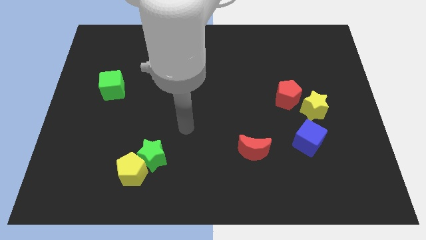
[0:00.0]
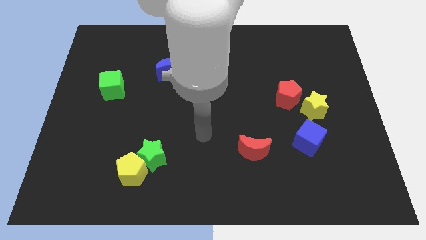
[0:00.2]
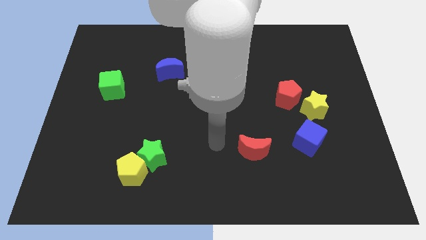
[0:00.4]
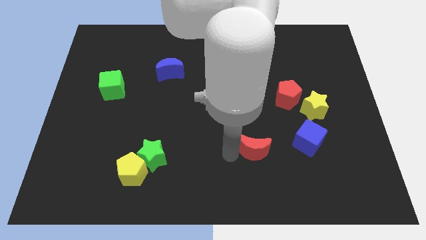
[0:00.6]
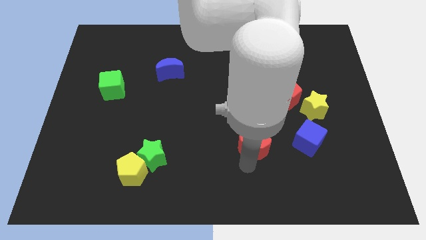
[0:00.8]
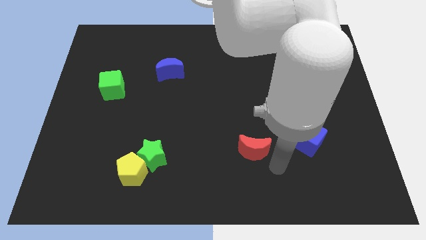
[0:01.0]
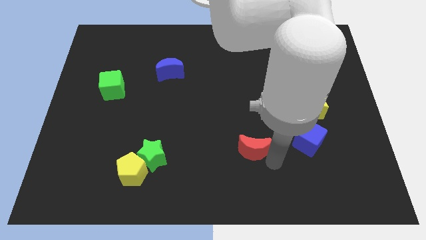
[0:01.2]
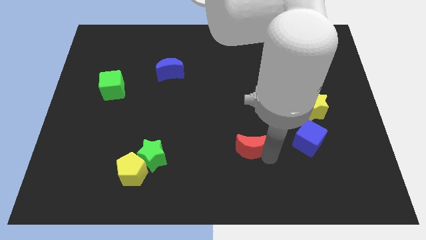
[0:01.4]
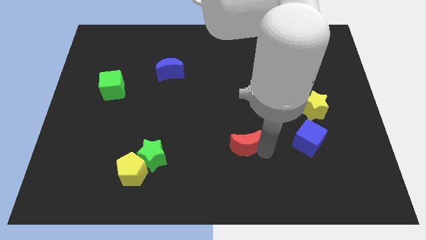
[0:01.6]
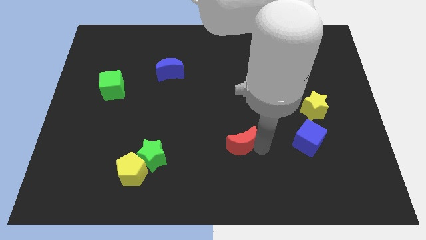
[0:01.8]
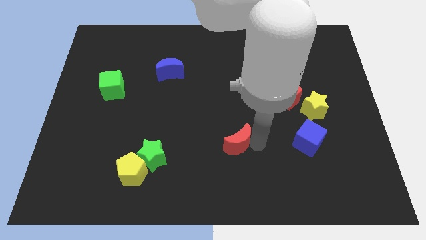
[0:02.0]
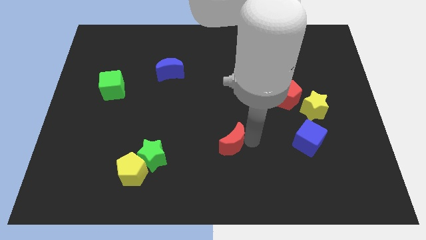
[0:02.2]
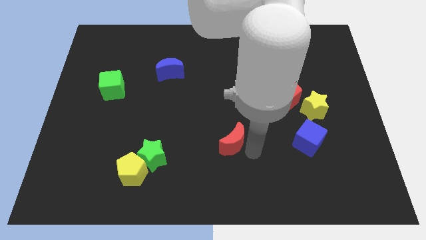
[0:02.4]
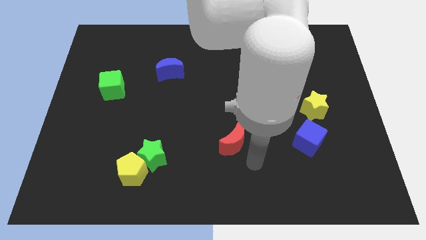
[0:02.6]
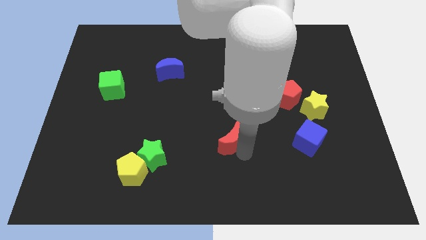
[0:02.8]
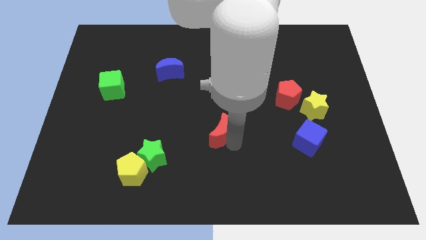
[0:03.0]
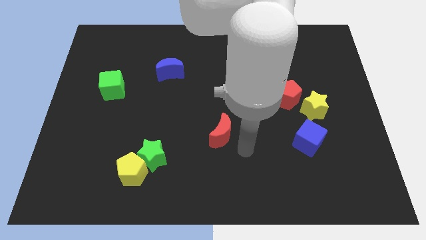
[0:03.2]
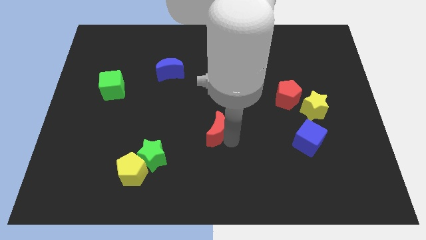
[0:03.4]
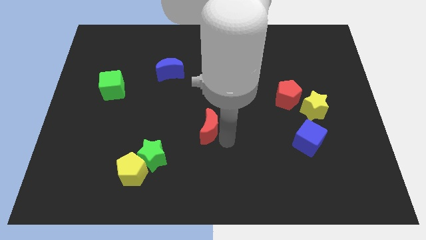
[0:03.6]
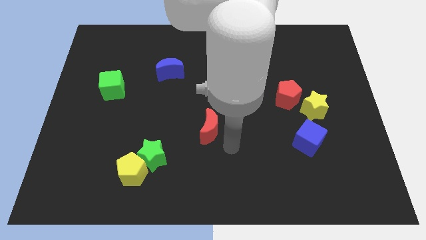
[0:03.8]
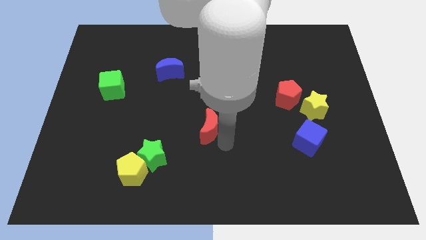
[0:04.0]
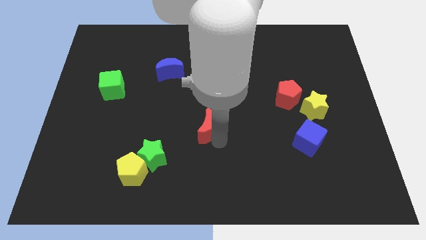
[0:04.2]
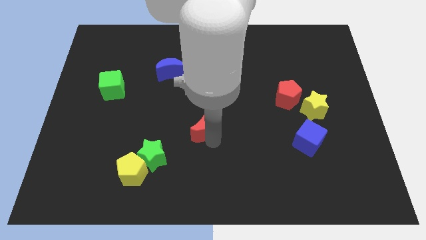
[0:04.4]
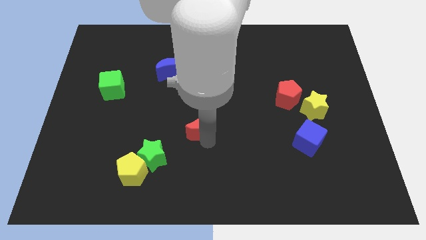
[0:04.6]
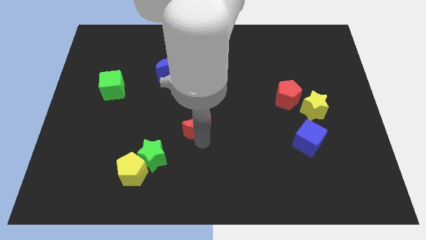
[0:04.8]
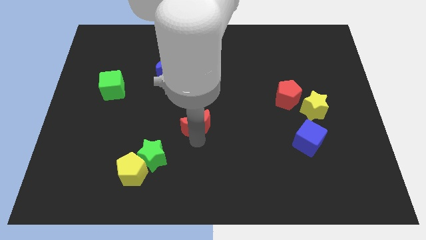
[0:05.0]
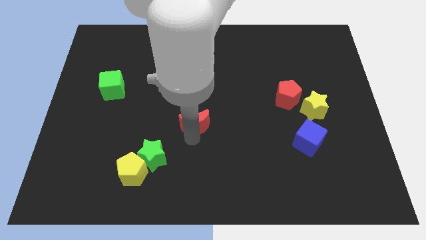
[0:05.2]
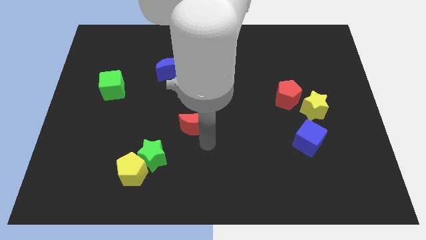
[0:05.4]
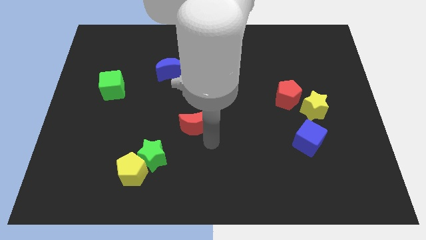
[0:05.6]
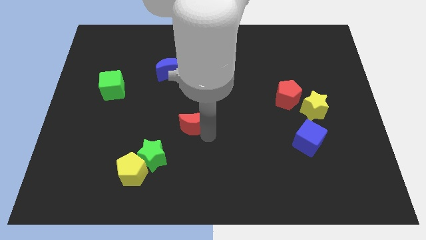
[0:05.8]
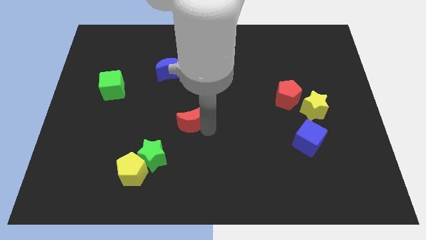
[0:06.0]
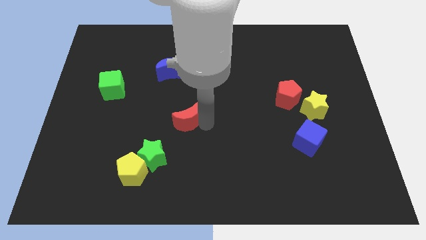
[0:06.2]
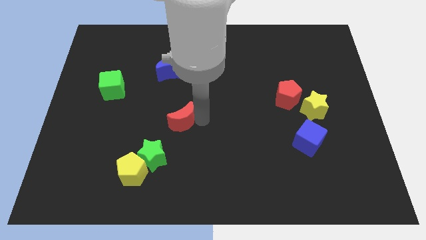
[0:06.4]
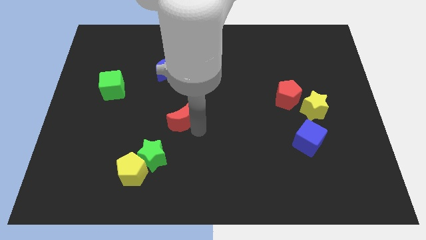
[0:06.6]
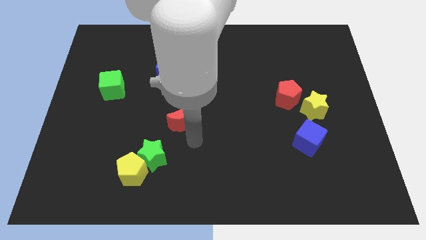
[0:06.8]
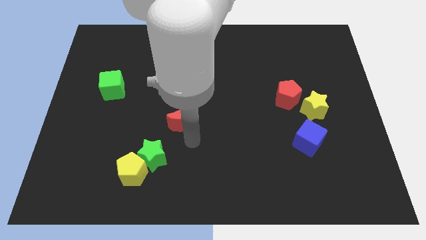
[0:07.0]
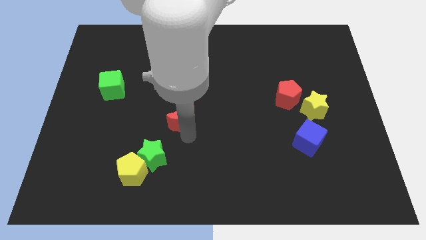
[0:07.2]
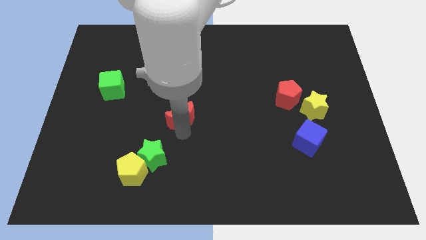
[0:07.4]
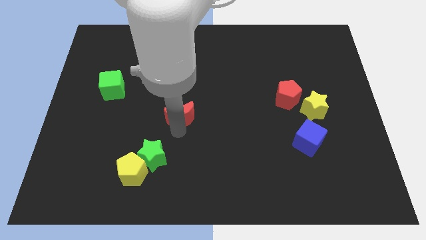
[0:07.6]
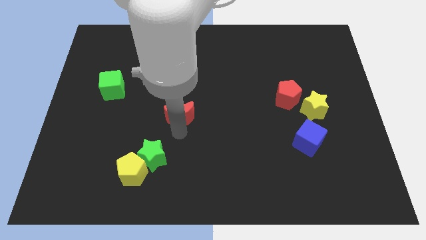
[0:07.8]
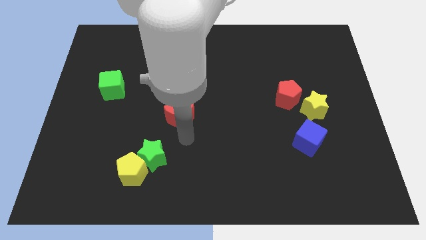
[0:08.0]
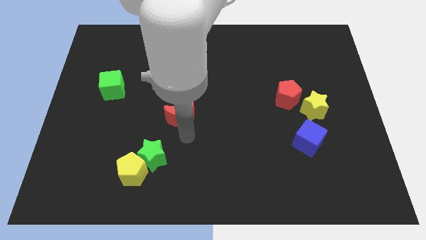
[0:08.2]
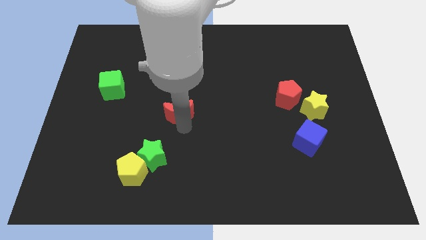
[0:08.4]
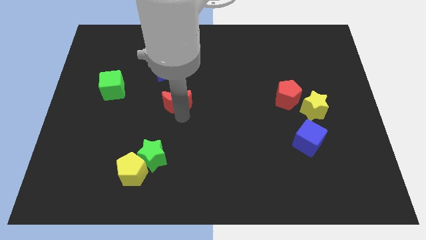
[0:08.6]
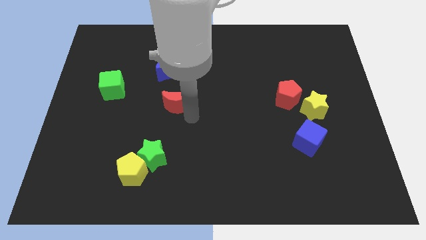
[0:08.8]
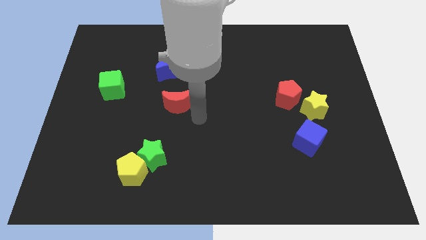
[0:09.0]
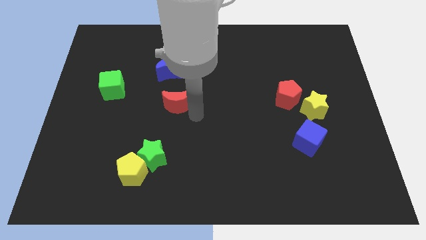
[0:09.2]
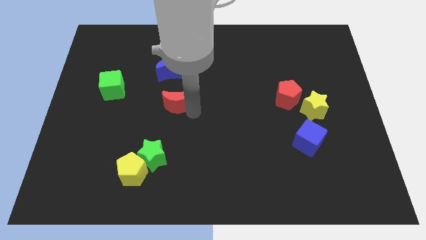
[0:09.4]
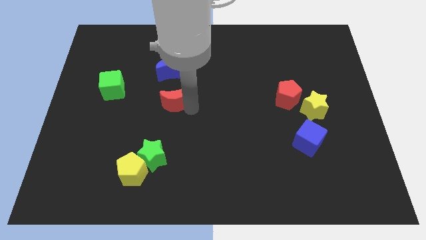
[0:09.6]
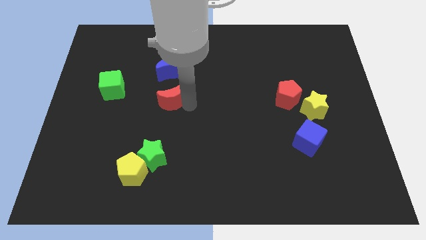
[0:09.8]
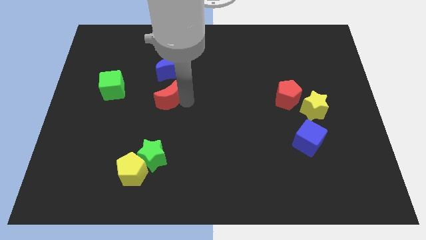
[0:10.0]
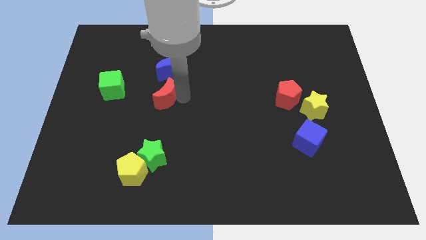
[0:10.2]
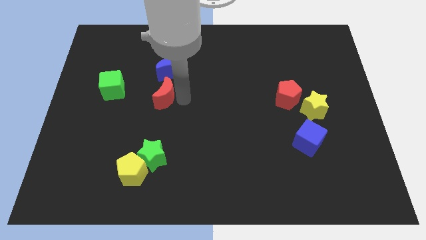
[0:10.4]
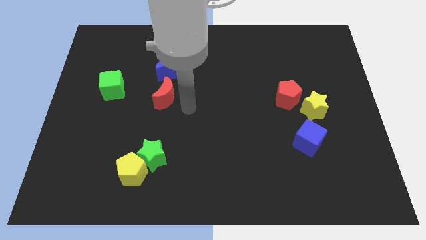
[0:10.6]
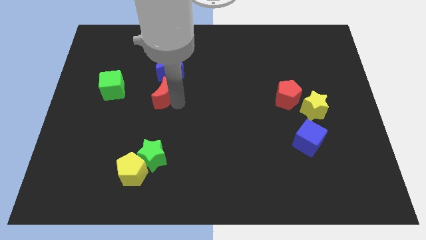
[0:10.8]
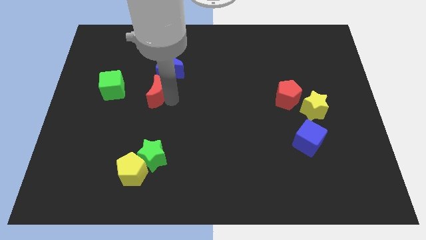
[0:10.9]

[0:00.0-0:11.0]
push the red moon diagonally down and to the left of the blue moon

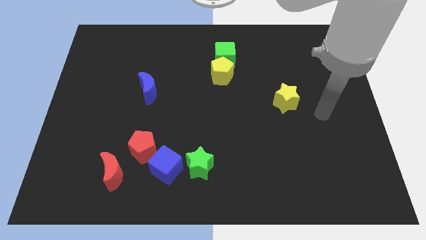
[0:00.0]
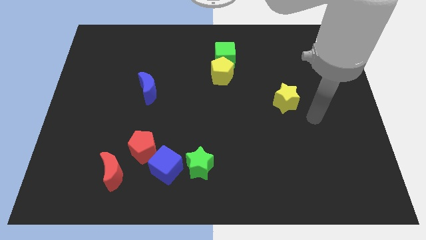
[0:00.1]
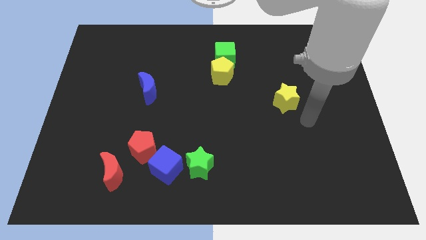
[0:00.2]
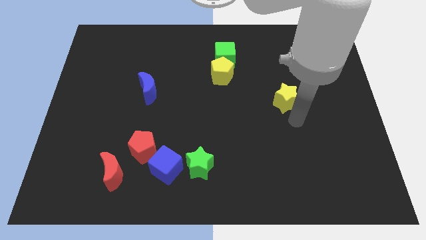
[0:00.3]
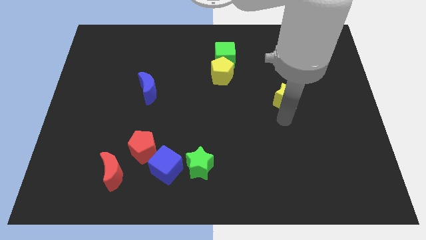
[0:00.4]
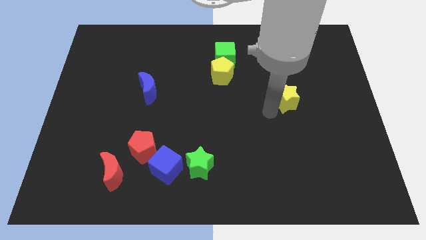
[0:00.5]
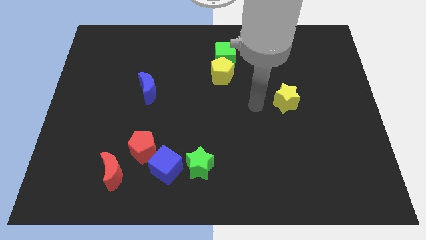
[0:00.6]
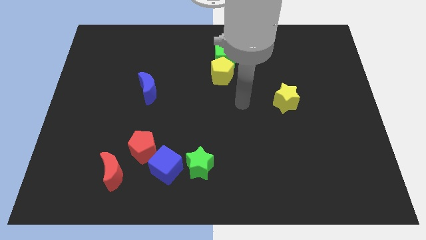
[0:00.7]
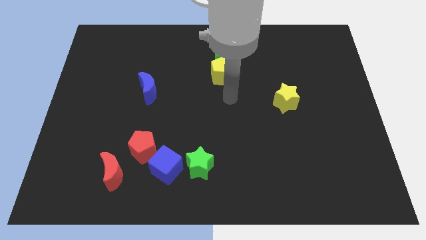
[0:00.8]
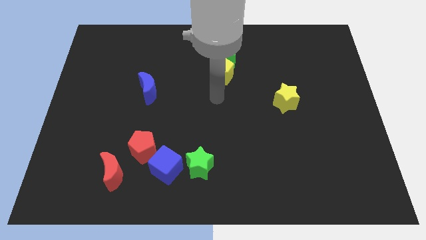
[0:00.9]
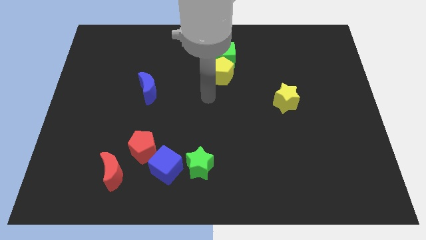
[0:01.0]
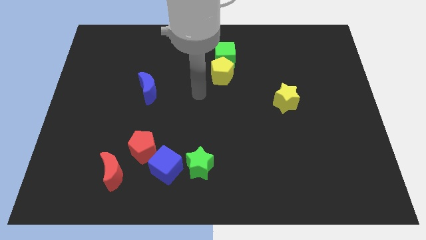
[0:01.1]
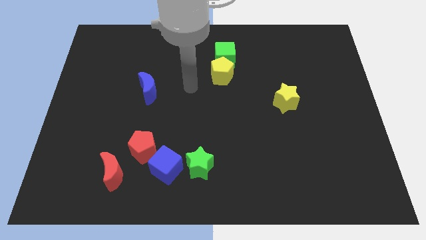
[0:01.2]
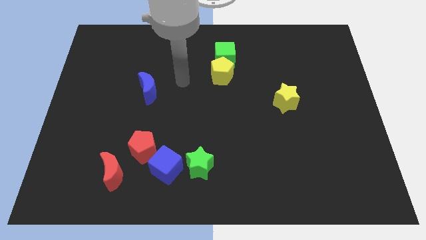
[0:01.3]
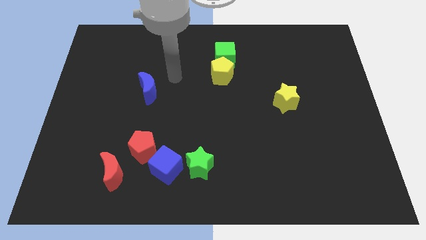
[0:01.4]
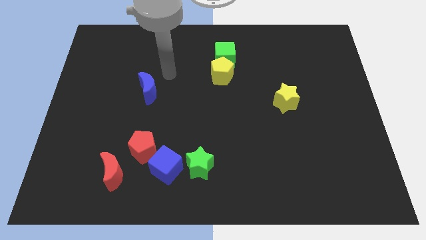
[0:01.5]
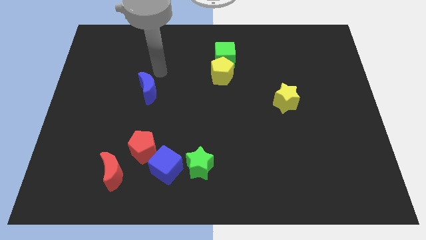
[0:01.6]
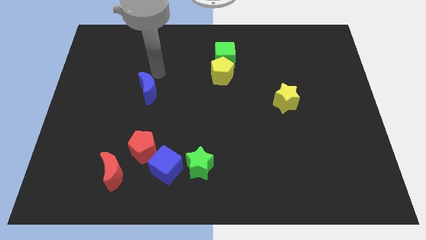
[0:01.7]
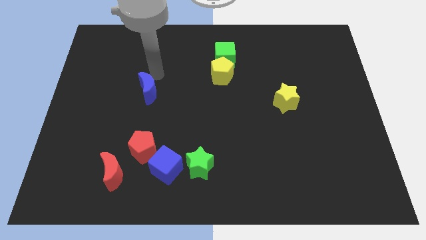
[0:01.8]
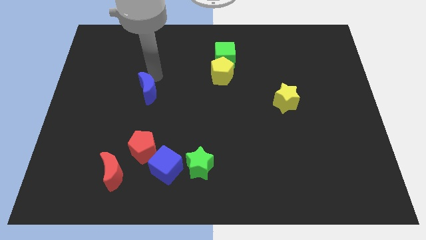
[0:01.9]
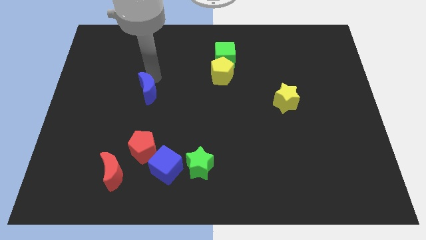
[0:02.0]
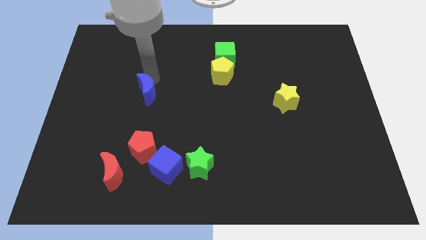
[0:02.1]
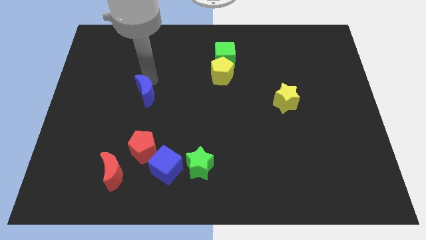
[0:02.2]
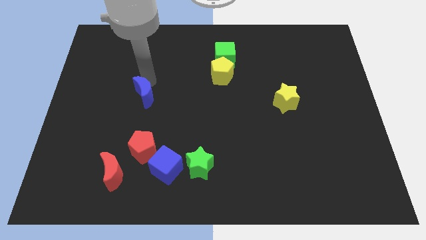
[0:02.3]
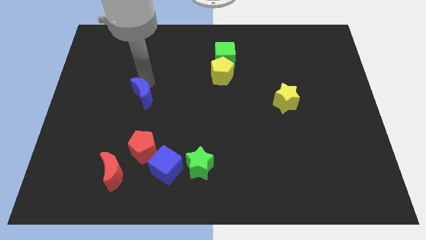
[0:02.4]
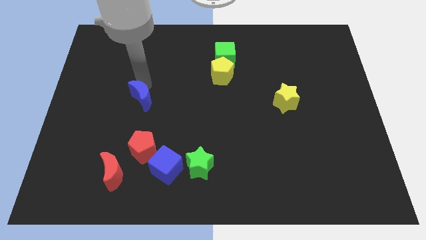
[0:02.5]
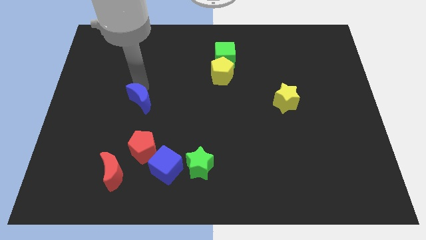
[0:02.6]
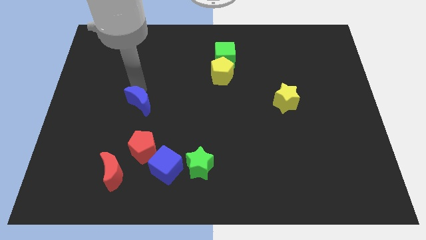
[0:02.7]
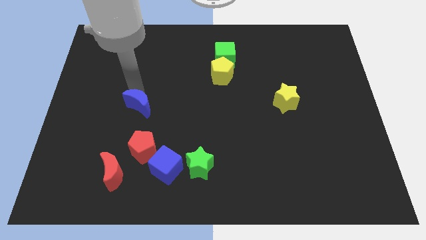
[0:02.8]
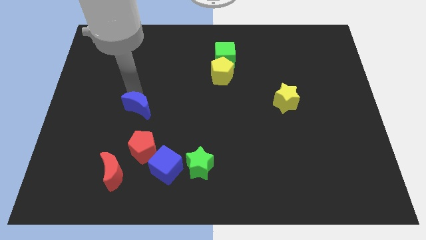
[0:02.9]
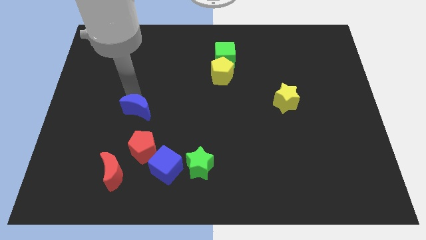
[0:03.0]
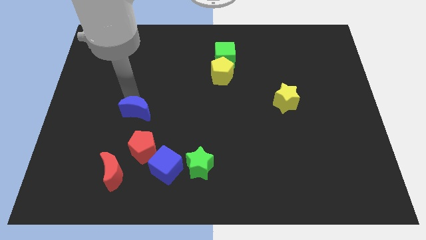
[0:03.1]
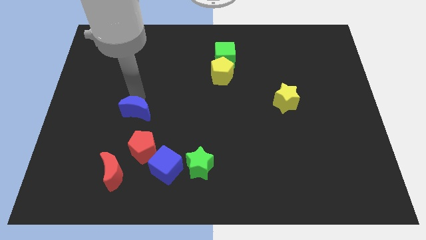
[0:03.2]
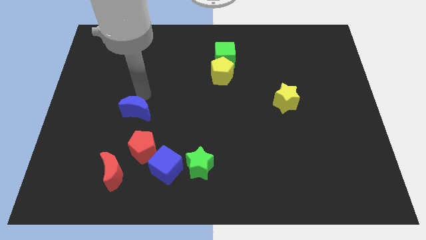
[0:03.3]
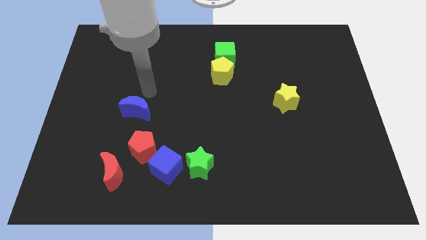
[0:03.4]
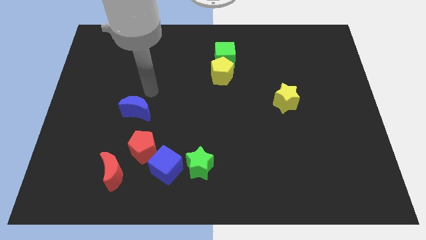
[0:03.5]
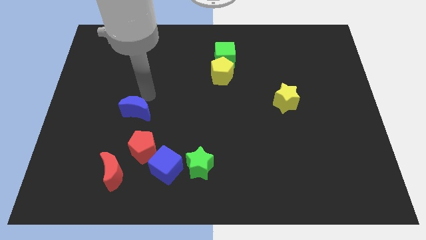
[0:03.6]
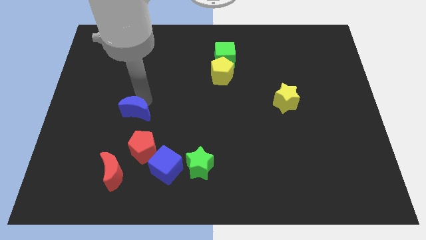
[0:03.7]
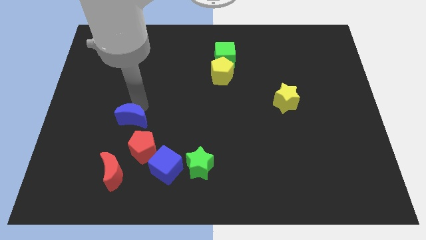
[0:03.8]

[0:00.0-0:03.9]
push the blue moon to the top left of the red pentagon
